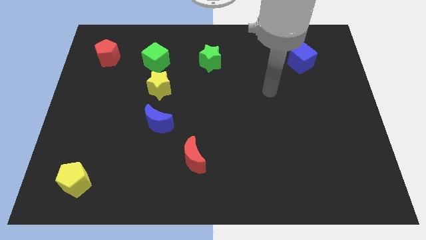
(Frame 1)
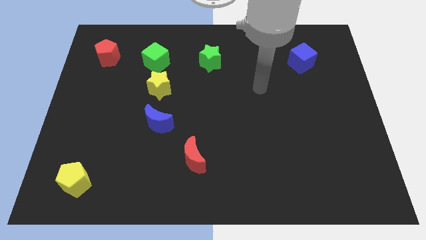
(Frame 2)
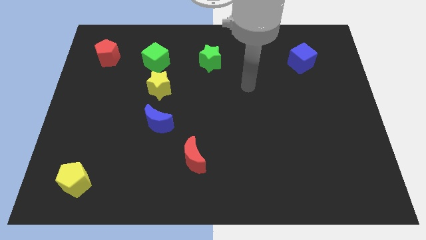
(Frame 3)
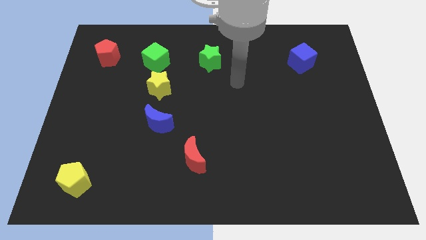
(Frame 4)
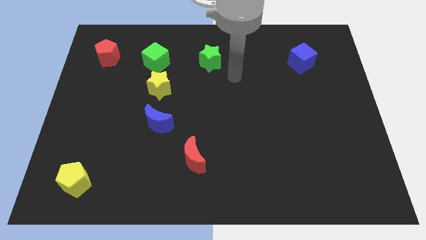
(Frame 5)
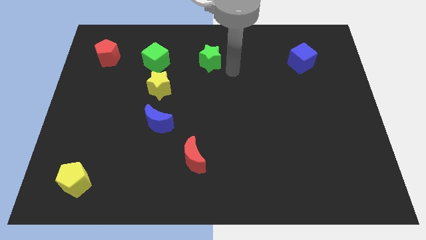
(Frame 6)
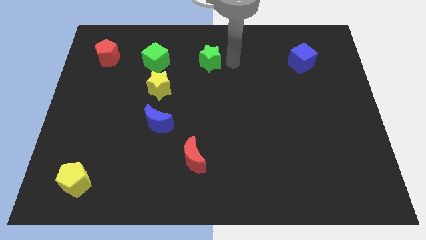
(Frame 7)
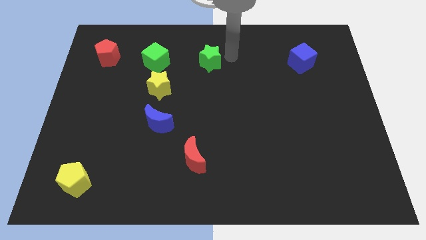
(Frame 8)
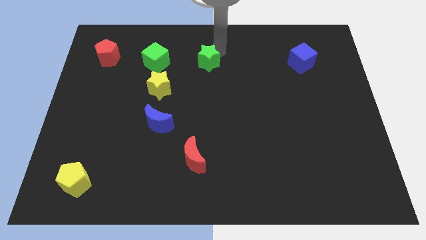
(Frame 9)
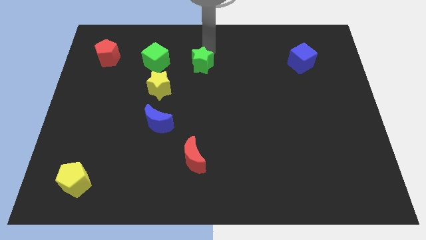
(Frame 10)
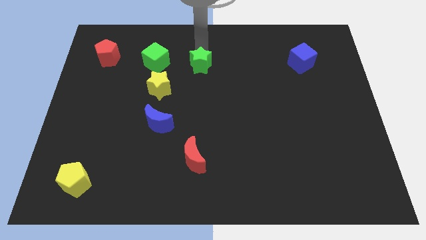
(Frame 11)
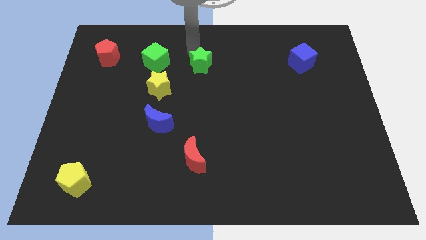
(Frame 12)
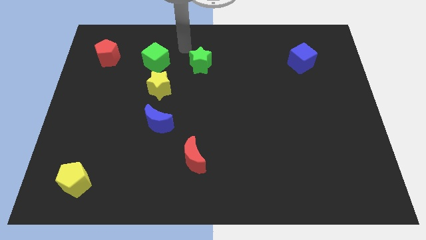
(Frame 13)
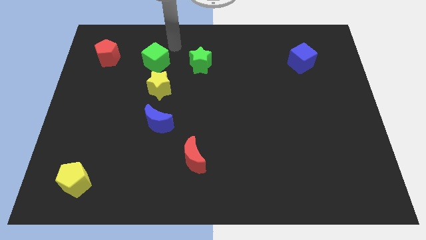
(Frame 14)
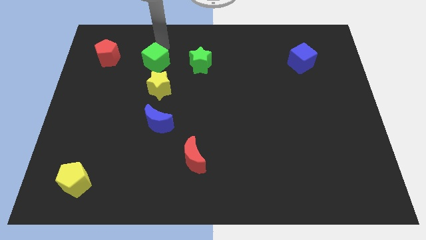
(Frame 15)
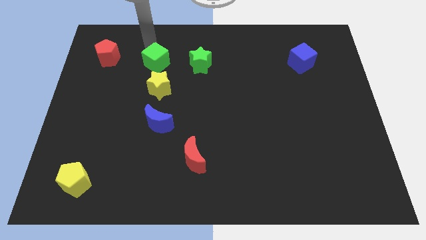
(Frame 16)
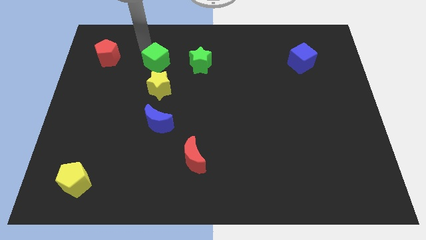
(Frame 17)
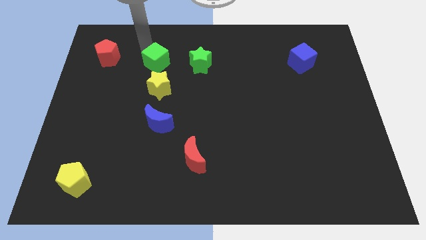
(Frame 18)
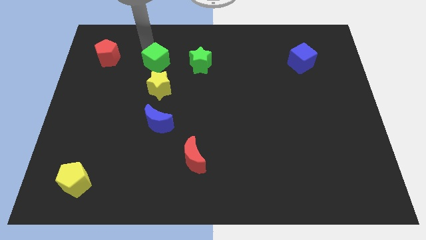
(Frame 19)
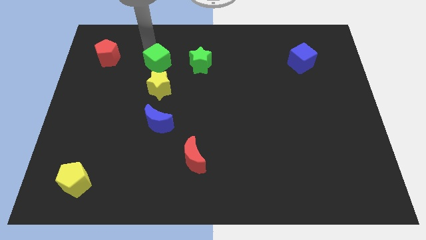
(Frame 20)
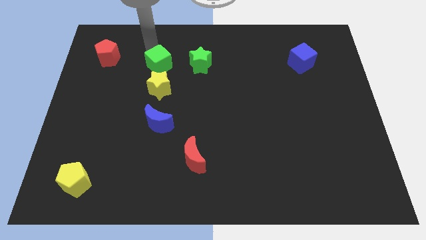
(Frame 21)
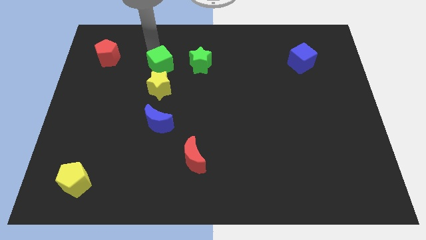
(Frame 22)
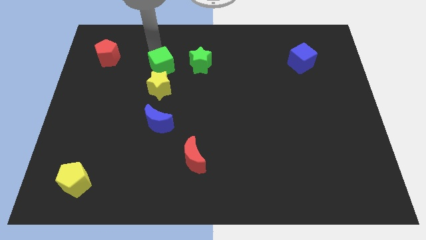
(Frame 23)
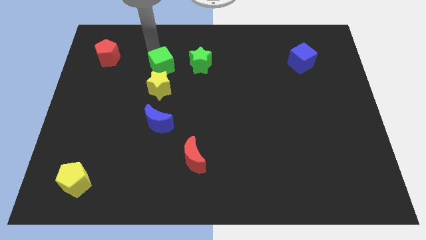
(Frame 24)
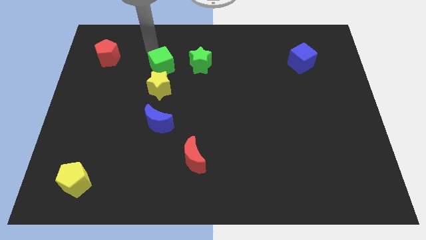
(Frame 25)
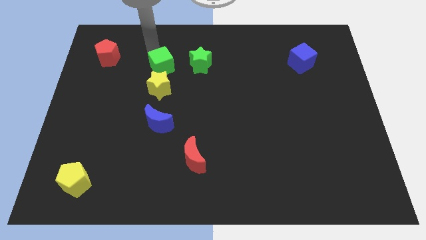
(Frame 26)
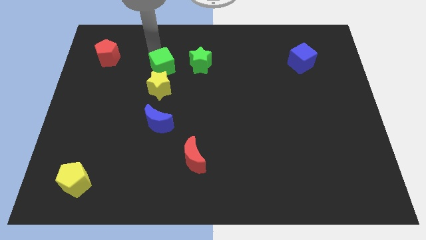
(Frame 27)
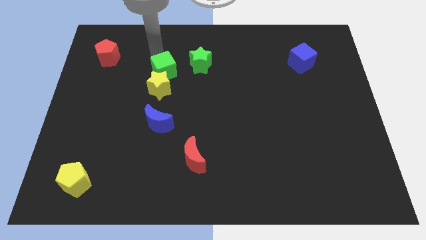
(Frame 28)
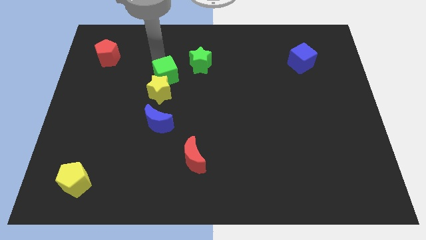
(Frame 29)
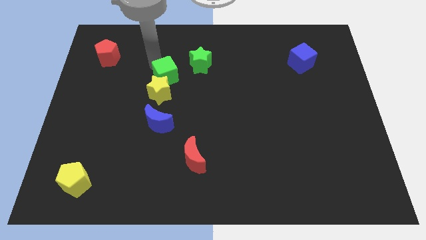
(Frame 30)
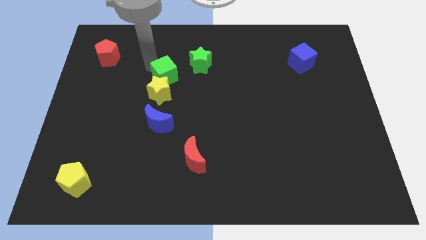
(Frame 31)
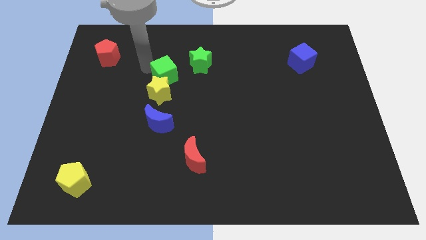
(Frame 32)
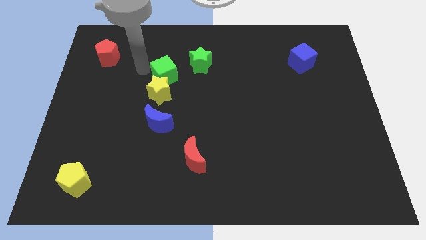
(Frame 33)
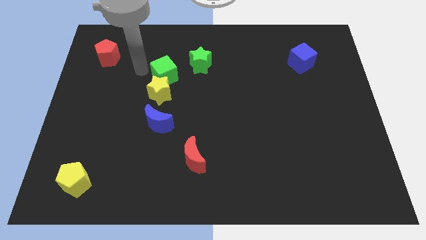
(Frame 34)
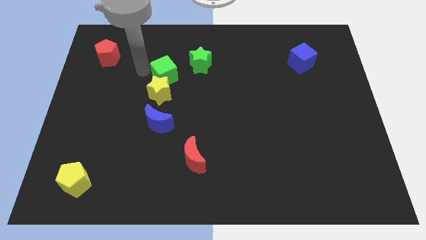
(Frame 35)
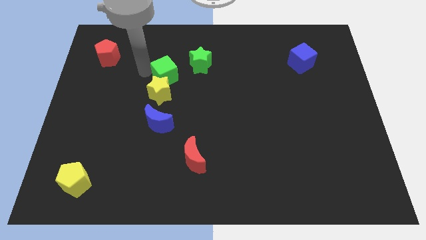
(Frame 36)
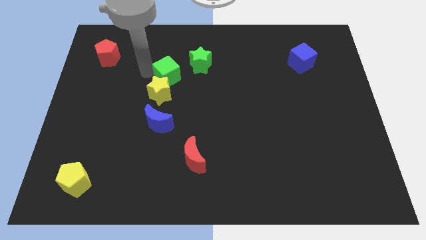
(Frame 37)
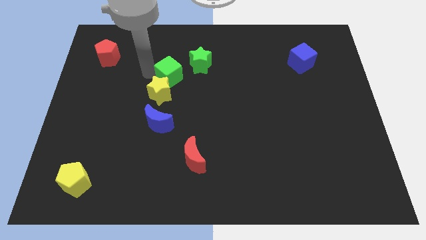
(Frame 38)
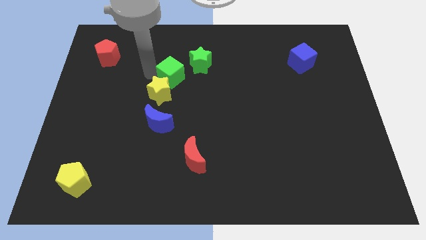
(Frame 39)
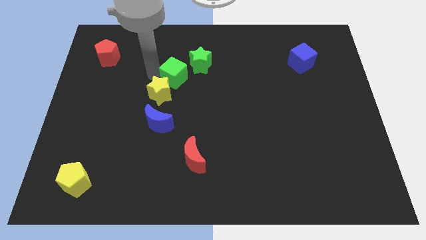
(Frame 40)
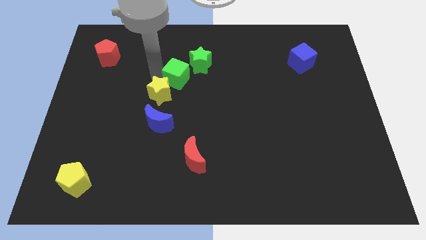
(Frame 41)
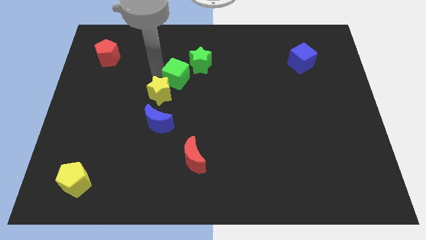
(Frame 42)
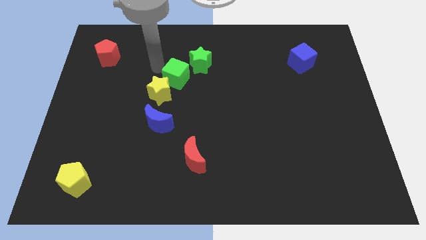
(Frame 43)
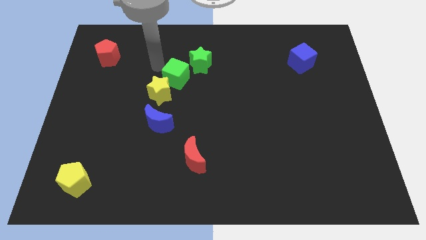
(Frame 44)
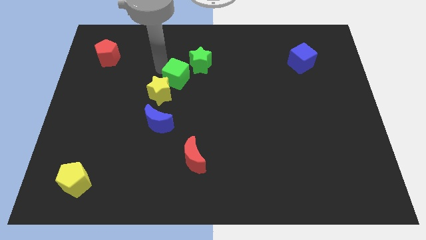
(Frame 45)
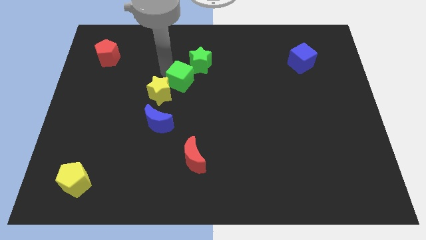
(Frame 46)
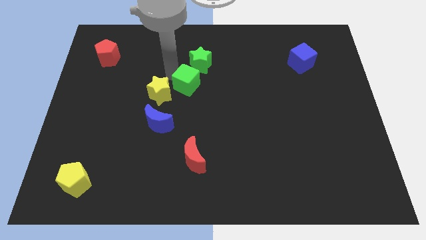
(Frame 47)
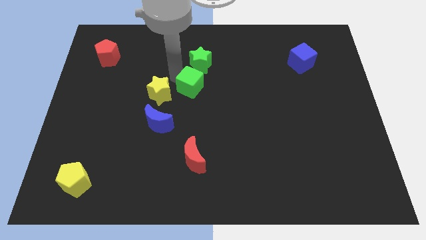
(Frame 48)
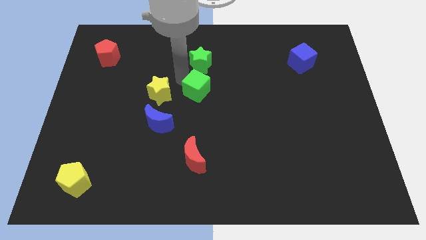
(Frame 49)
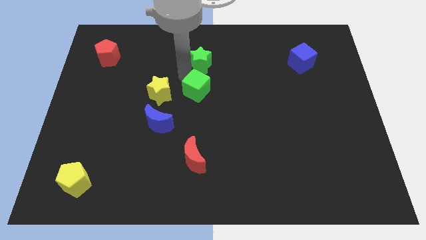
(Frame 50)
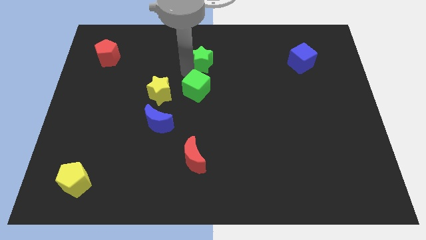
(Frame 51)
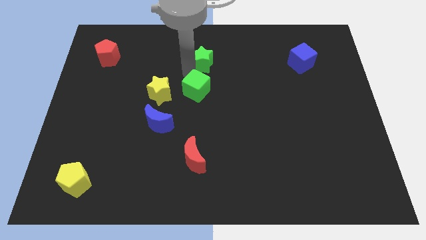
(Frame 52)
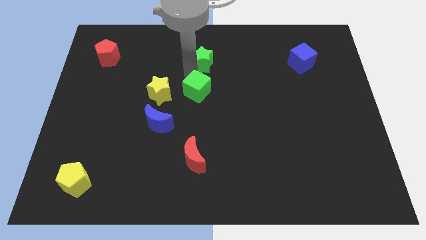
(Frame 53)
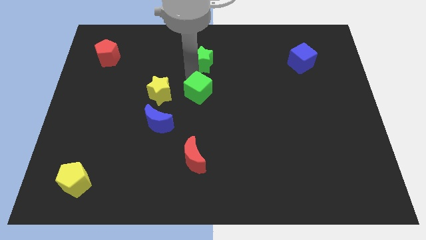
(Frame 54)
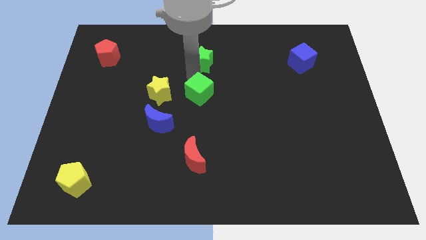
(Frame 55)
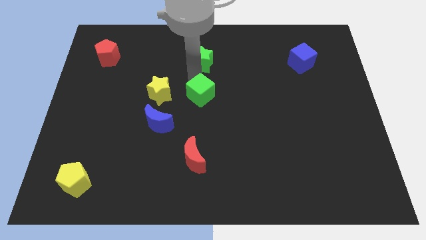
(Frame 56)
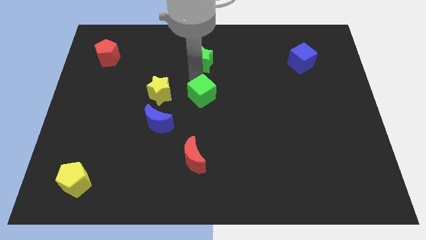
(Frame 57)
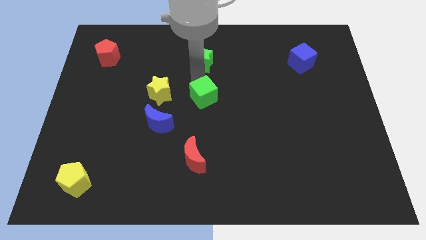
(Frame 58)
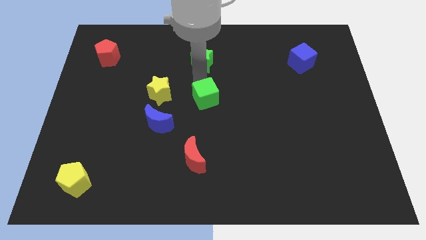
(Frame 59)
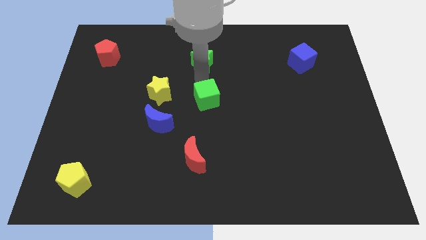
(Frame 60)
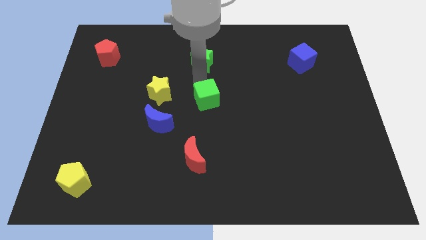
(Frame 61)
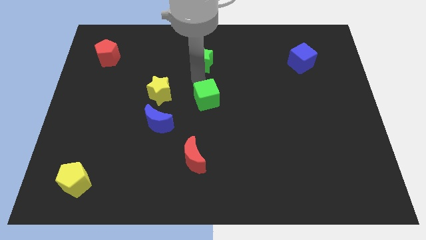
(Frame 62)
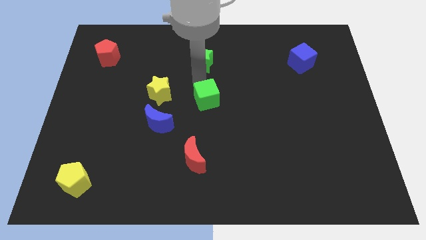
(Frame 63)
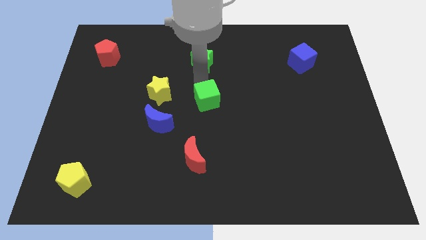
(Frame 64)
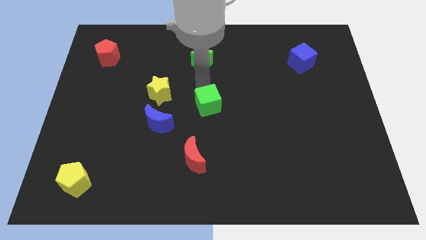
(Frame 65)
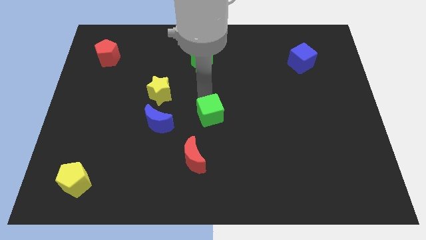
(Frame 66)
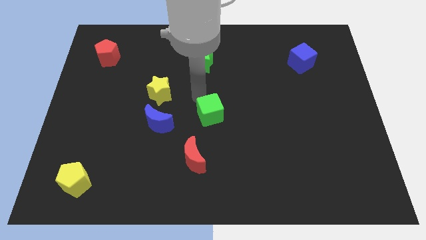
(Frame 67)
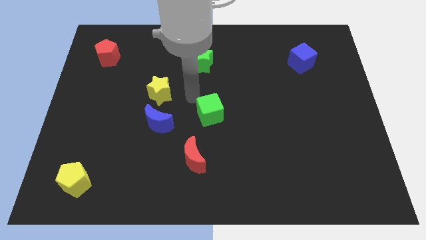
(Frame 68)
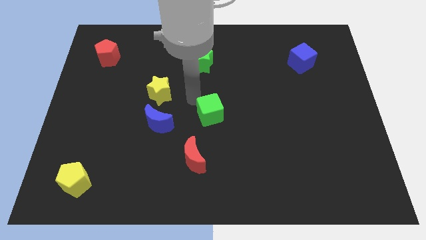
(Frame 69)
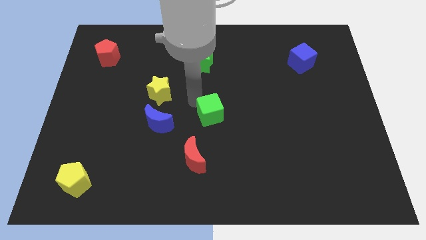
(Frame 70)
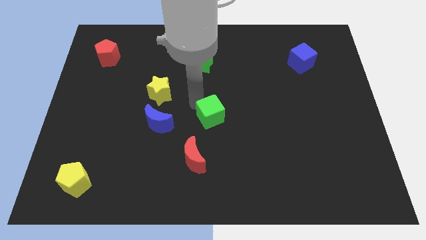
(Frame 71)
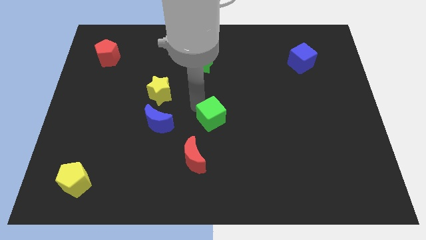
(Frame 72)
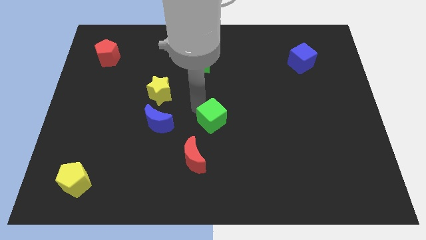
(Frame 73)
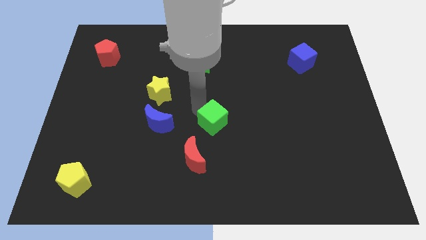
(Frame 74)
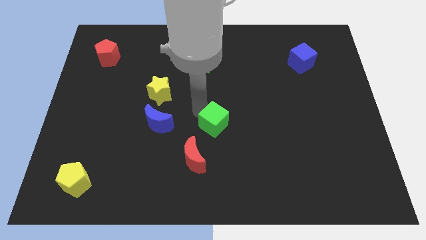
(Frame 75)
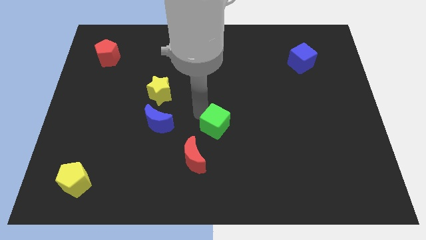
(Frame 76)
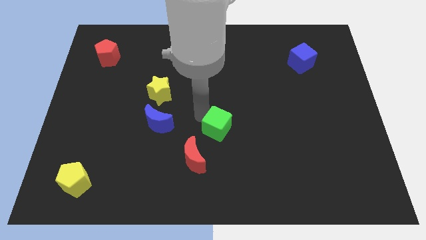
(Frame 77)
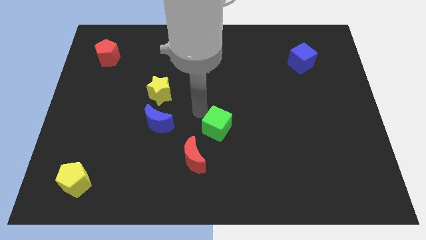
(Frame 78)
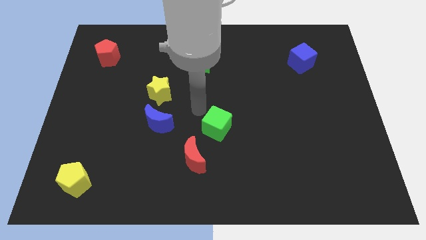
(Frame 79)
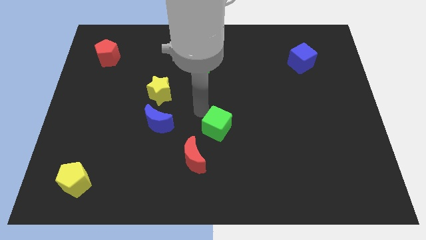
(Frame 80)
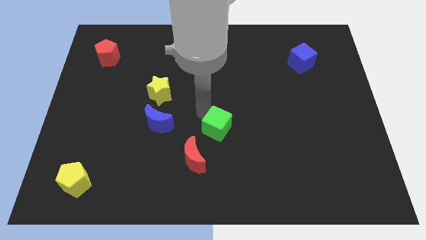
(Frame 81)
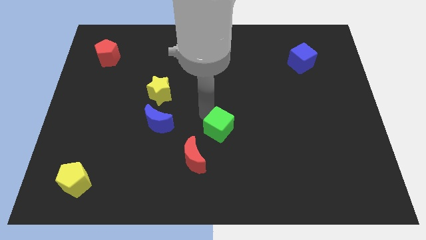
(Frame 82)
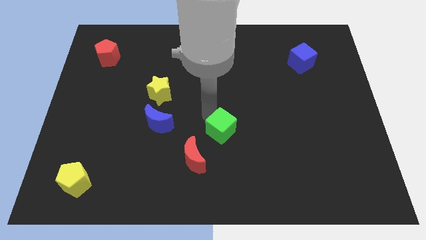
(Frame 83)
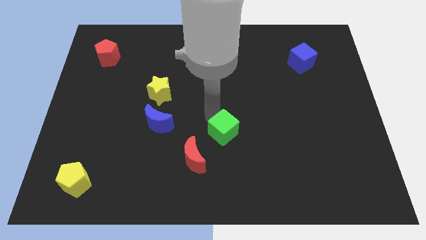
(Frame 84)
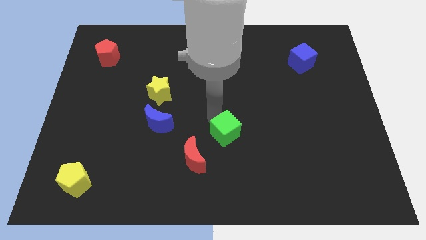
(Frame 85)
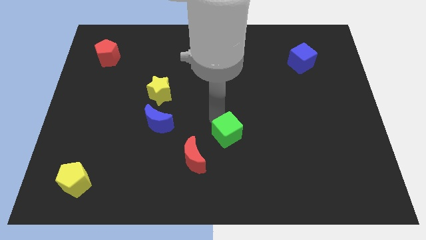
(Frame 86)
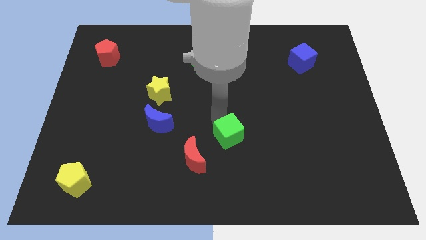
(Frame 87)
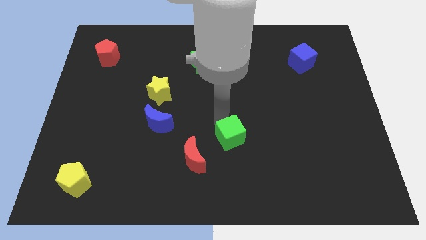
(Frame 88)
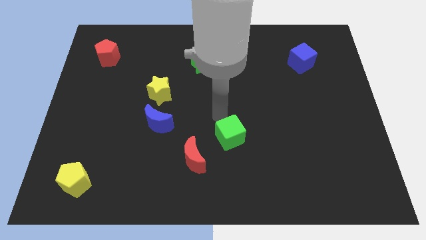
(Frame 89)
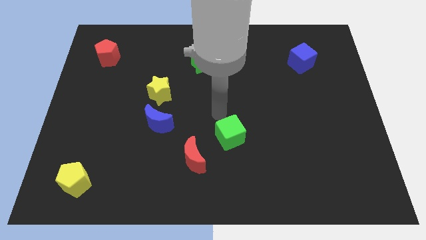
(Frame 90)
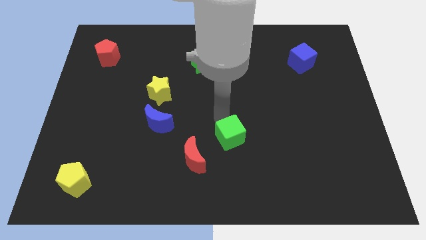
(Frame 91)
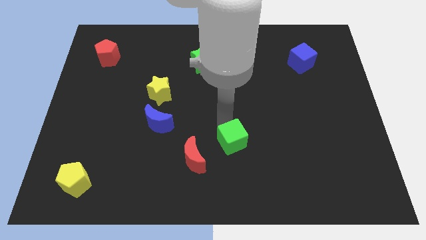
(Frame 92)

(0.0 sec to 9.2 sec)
slide the green cube just right of the red moon
